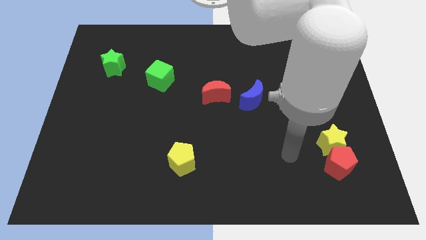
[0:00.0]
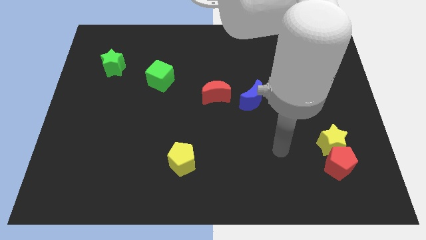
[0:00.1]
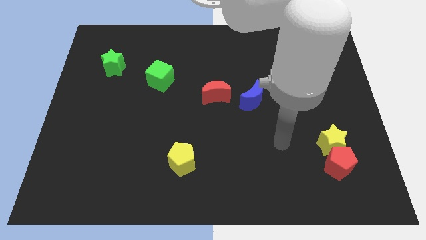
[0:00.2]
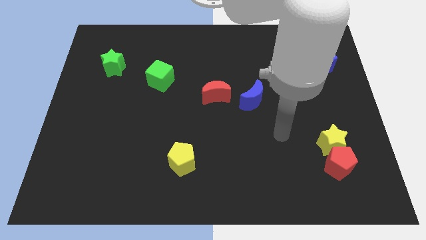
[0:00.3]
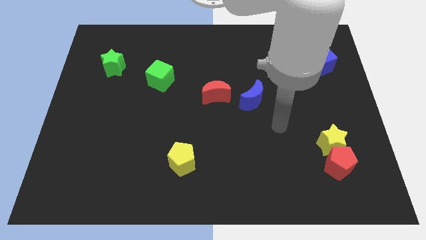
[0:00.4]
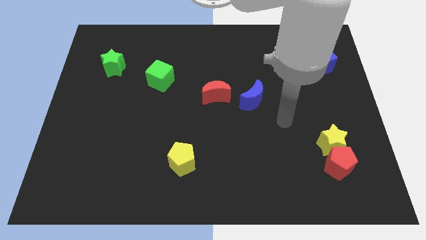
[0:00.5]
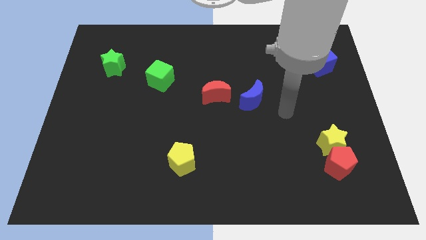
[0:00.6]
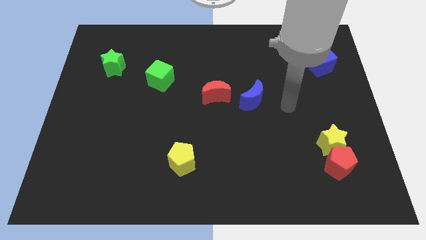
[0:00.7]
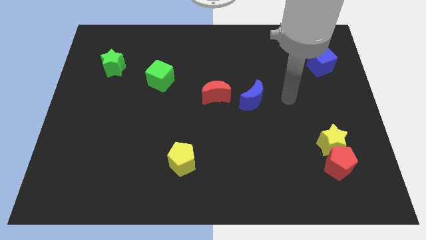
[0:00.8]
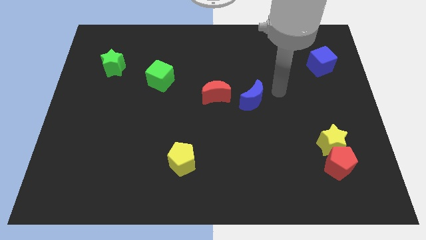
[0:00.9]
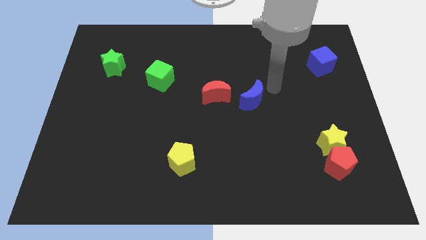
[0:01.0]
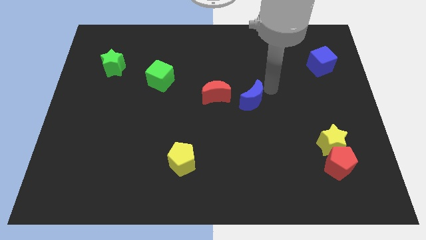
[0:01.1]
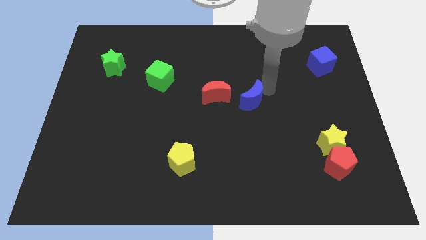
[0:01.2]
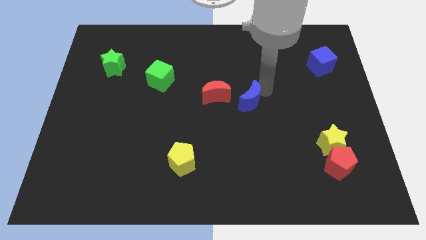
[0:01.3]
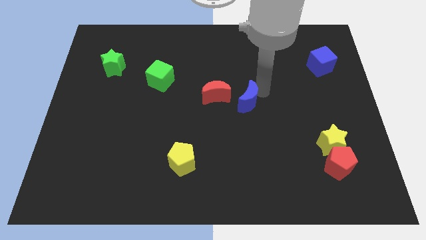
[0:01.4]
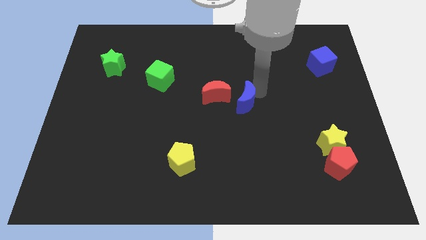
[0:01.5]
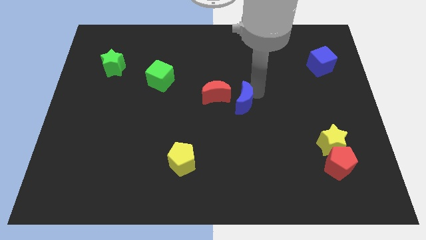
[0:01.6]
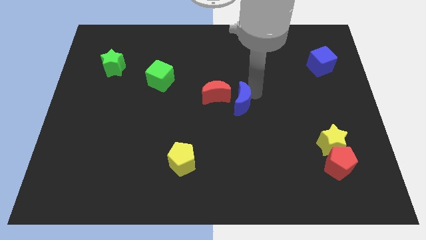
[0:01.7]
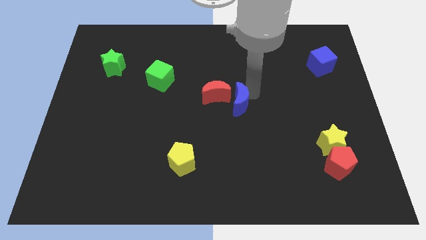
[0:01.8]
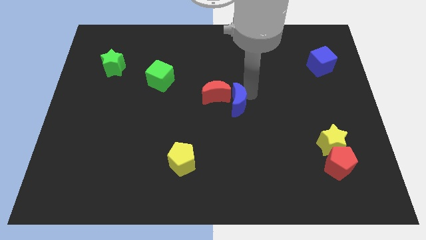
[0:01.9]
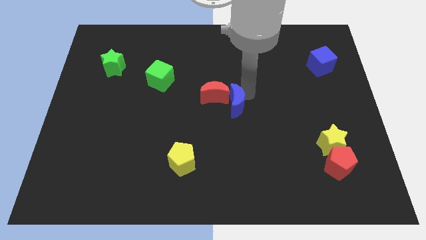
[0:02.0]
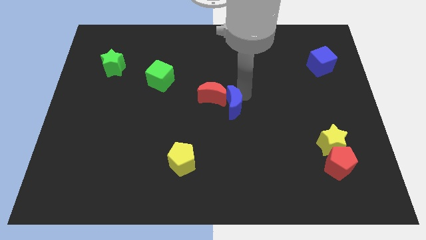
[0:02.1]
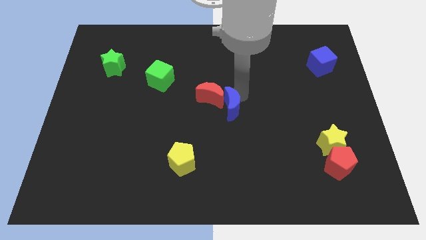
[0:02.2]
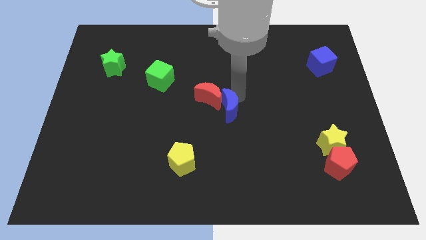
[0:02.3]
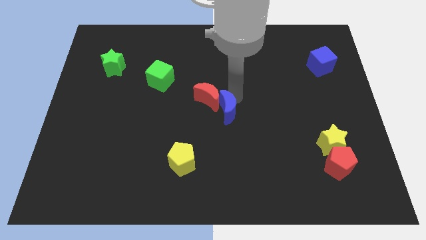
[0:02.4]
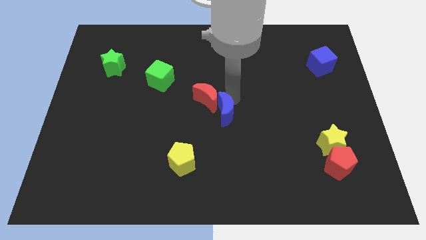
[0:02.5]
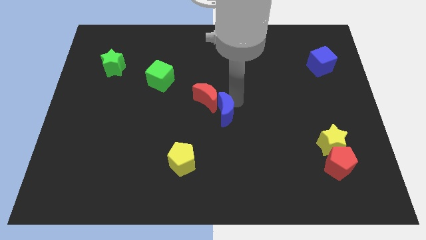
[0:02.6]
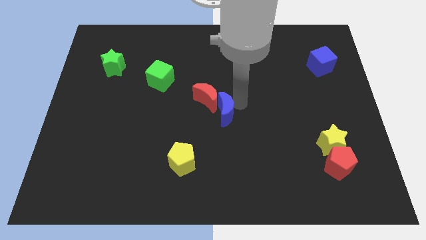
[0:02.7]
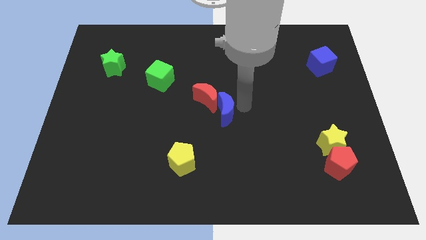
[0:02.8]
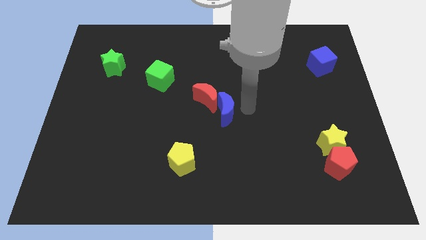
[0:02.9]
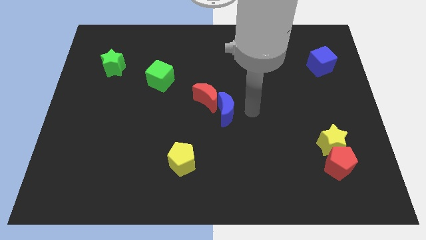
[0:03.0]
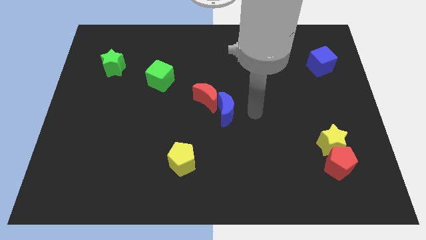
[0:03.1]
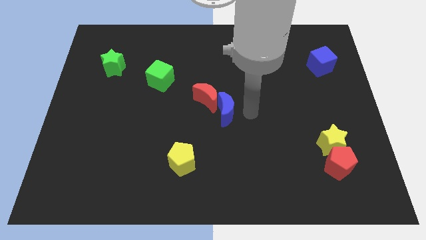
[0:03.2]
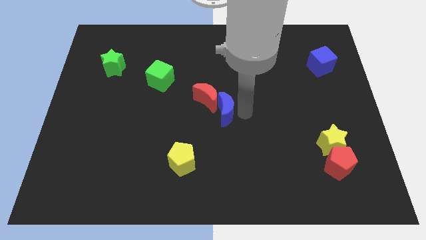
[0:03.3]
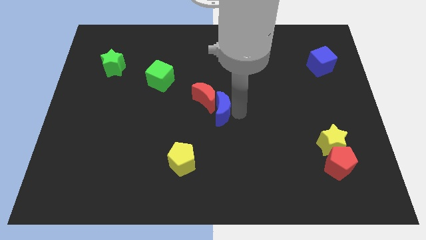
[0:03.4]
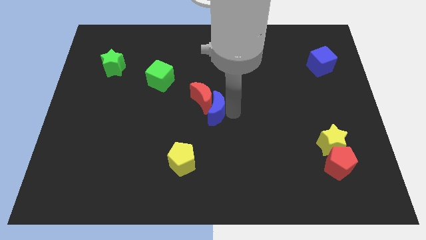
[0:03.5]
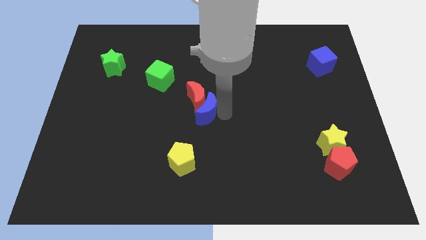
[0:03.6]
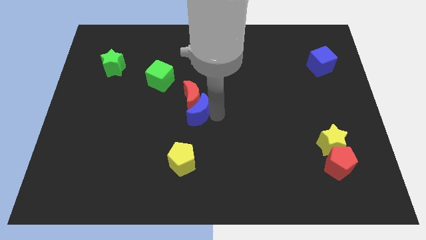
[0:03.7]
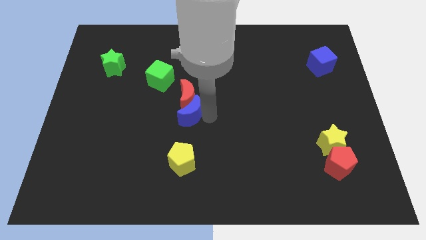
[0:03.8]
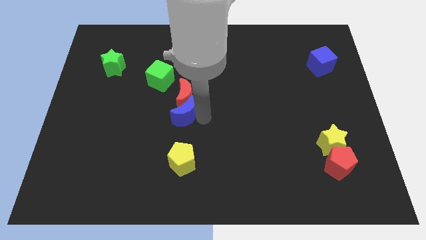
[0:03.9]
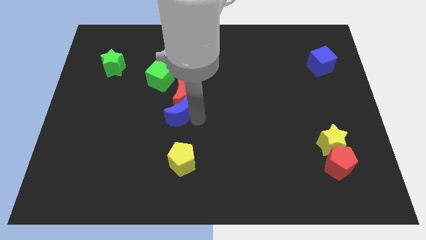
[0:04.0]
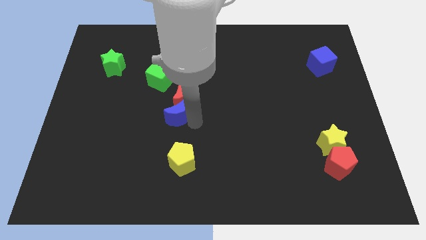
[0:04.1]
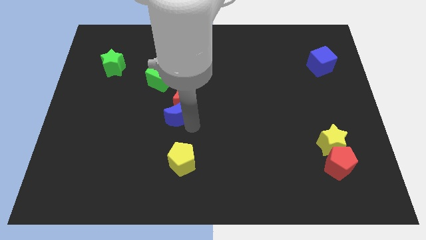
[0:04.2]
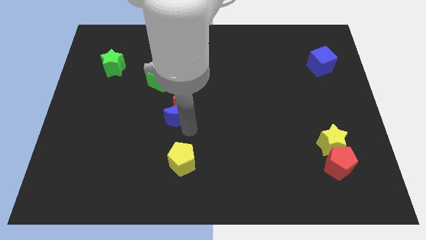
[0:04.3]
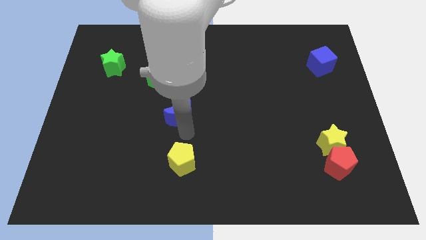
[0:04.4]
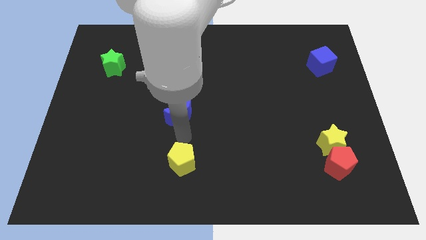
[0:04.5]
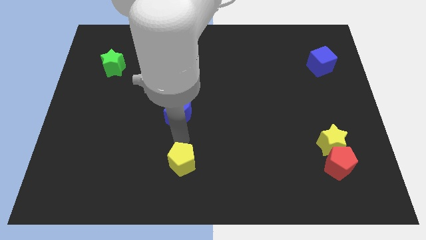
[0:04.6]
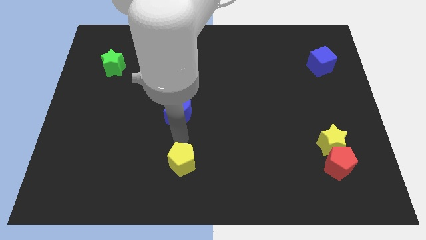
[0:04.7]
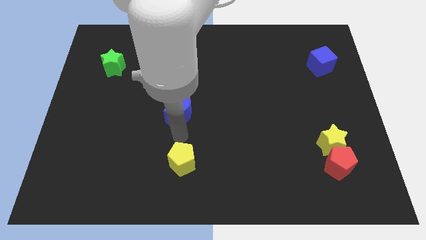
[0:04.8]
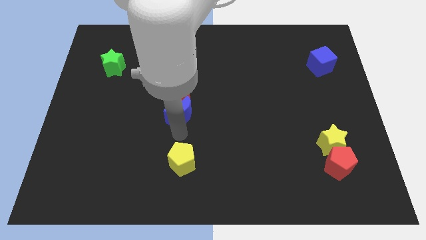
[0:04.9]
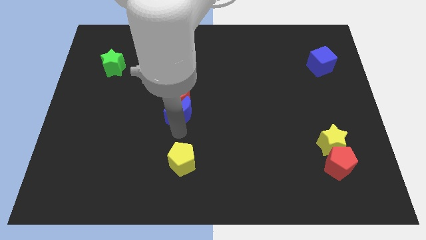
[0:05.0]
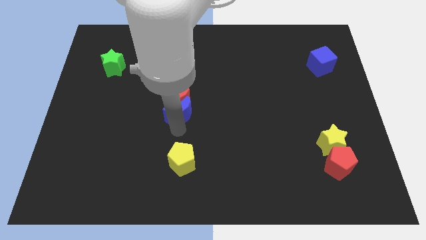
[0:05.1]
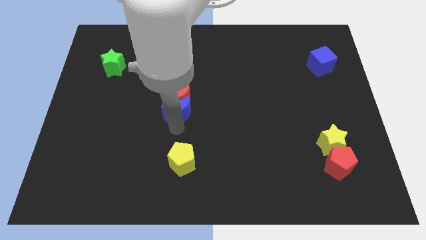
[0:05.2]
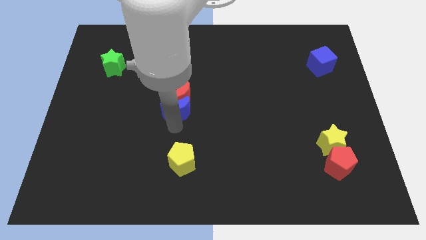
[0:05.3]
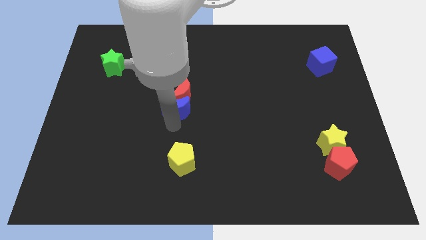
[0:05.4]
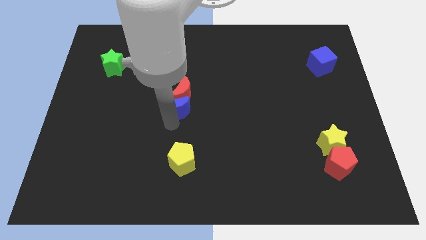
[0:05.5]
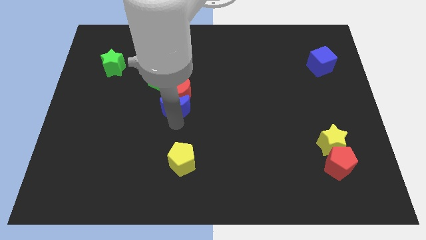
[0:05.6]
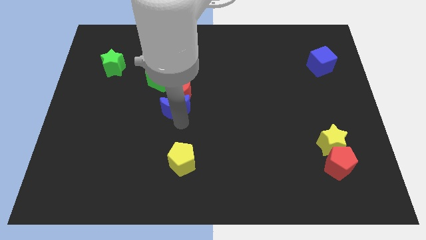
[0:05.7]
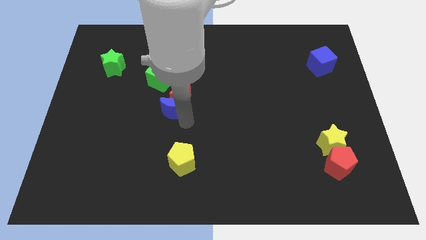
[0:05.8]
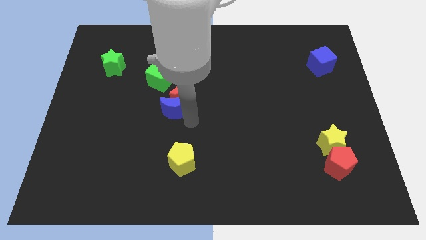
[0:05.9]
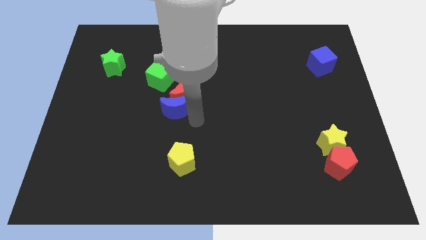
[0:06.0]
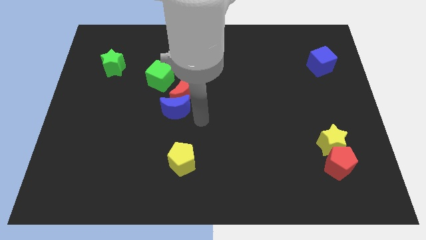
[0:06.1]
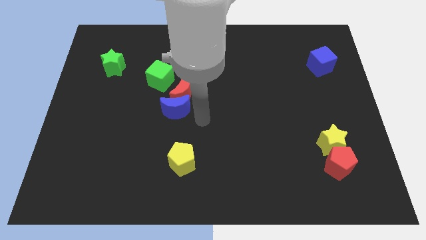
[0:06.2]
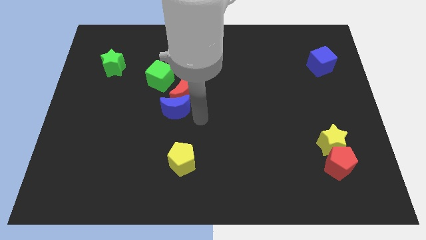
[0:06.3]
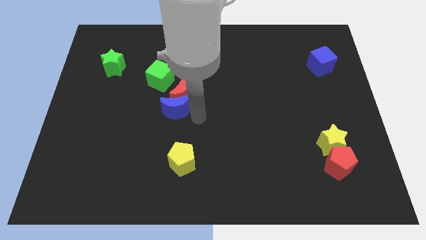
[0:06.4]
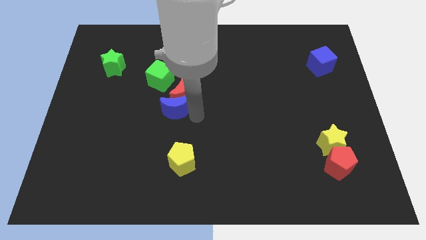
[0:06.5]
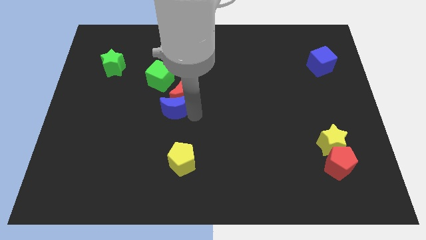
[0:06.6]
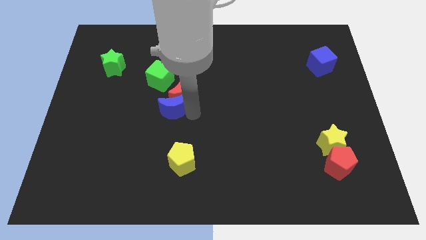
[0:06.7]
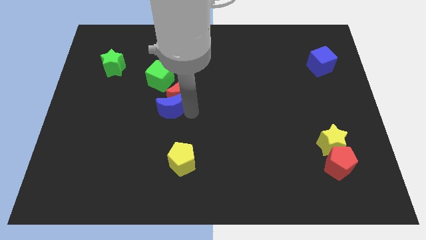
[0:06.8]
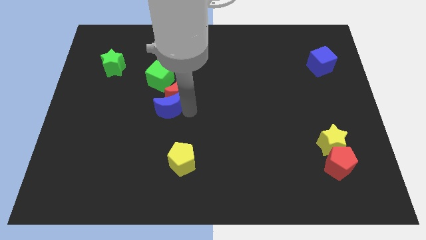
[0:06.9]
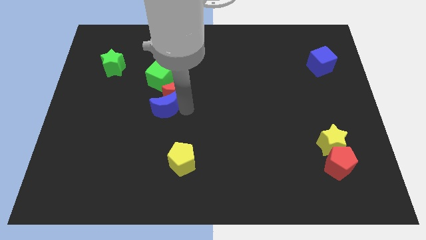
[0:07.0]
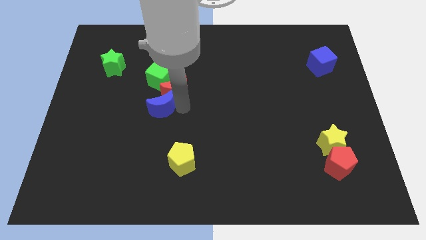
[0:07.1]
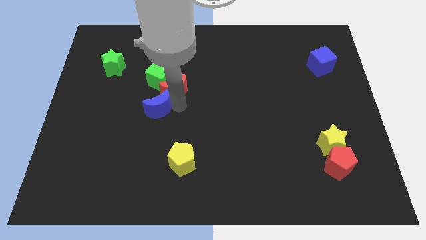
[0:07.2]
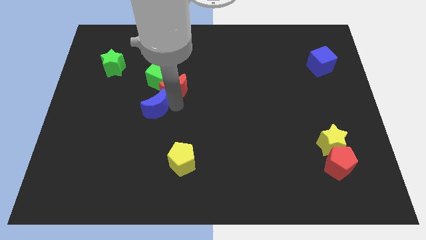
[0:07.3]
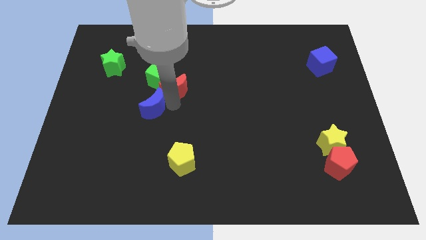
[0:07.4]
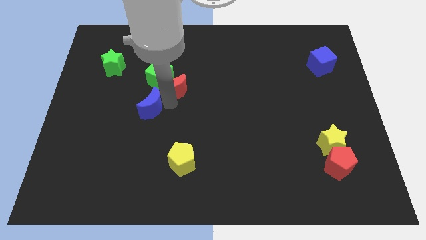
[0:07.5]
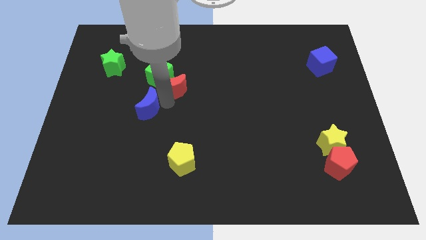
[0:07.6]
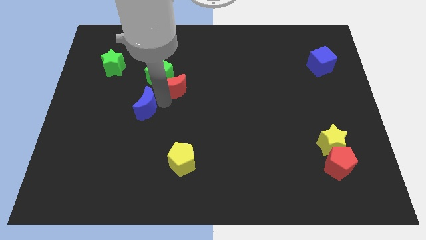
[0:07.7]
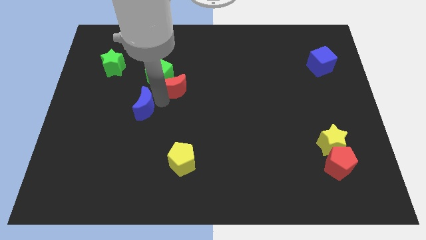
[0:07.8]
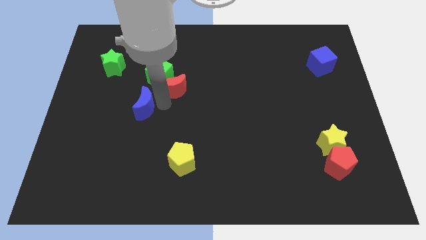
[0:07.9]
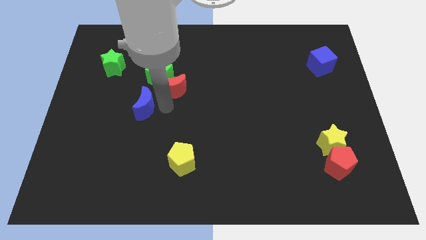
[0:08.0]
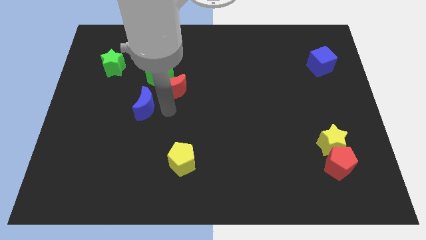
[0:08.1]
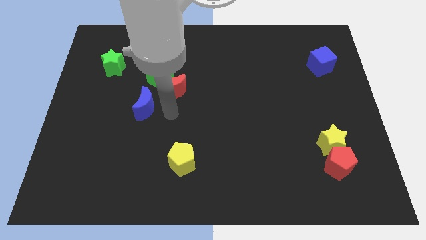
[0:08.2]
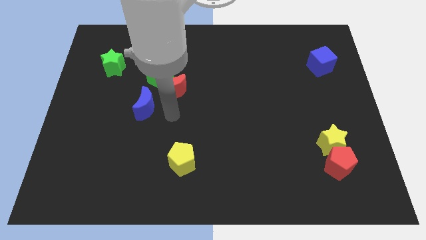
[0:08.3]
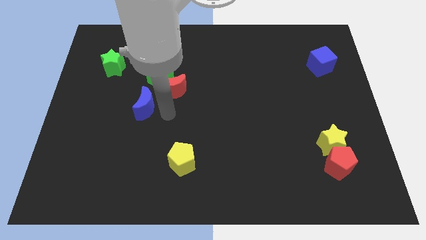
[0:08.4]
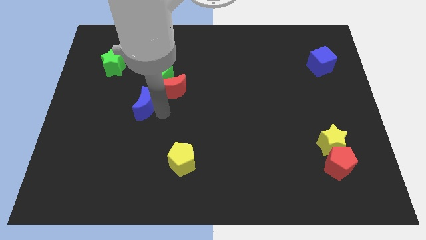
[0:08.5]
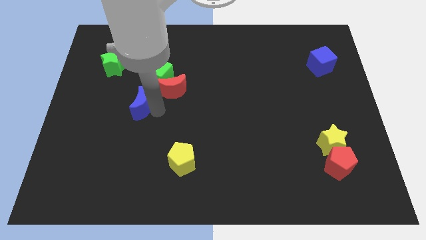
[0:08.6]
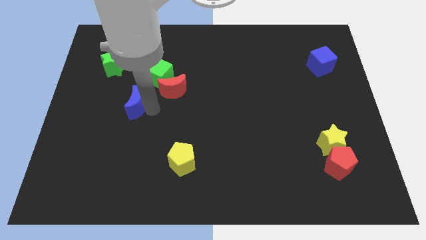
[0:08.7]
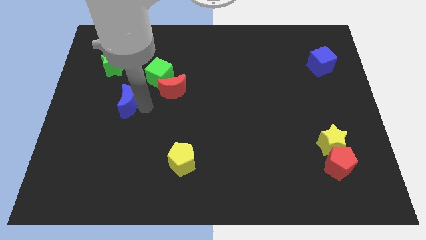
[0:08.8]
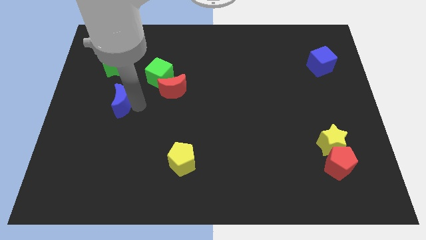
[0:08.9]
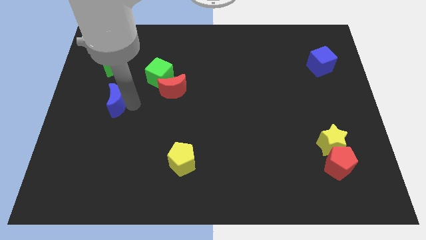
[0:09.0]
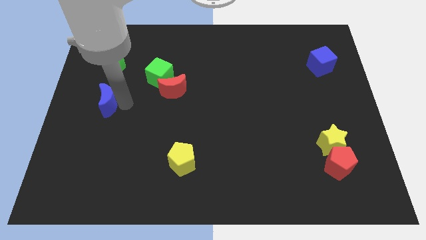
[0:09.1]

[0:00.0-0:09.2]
slide the blue moon to the center left
